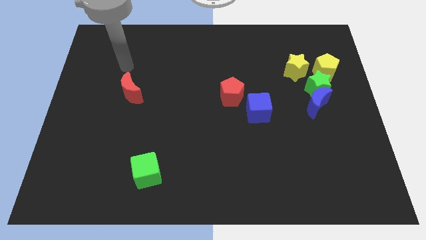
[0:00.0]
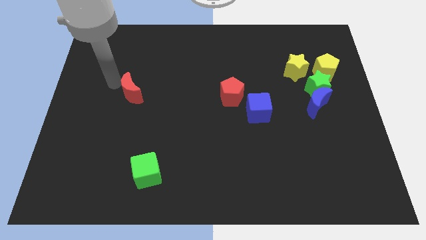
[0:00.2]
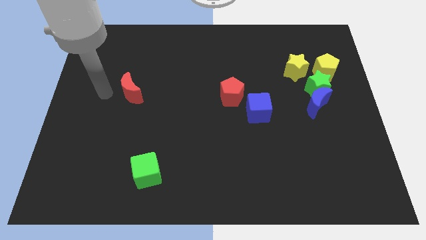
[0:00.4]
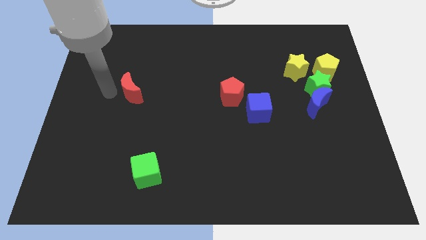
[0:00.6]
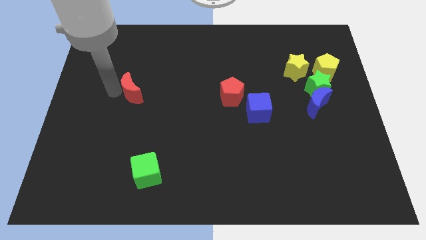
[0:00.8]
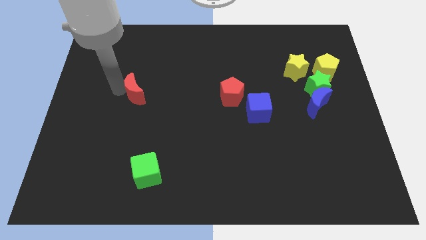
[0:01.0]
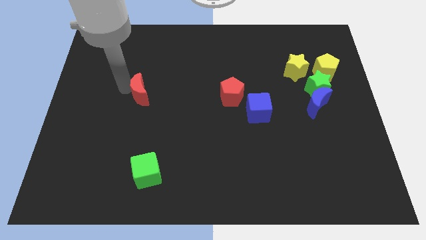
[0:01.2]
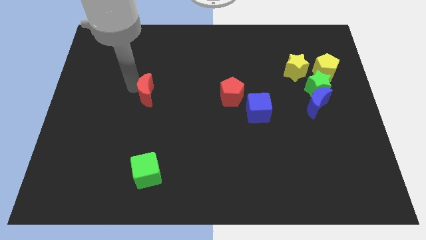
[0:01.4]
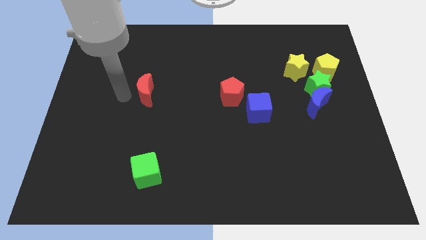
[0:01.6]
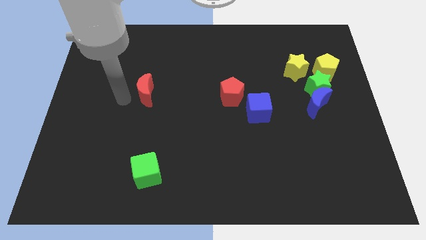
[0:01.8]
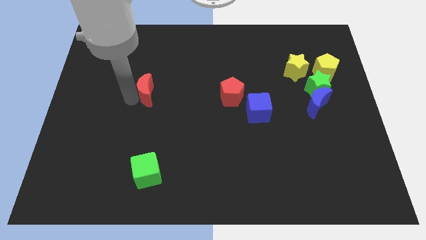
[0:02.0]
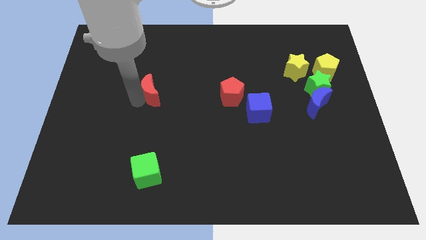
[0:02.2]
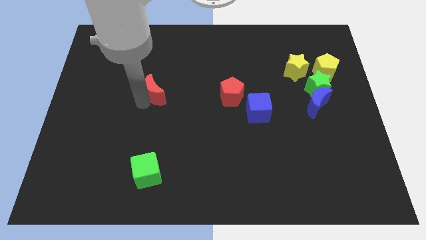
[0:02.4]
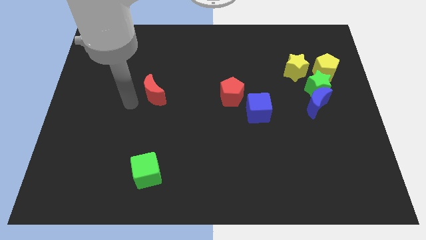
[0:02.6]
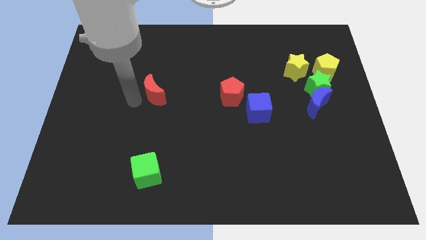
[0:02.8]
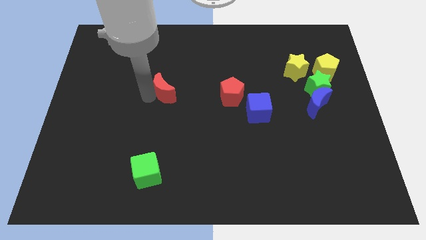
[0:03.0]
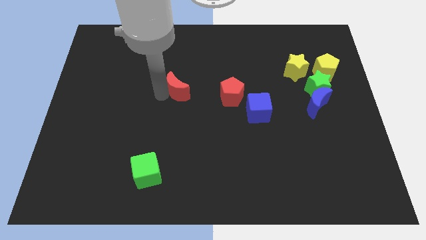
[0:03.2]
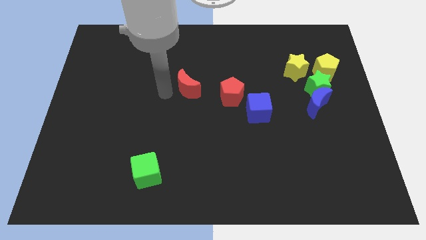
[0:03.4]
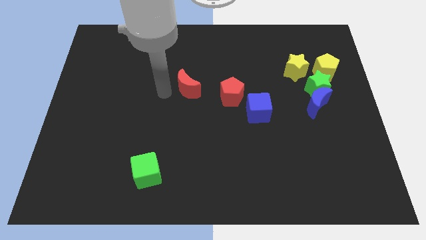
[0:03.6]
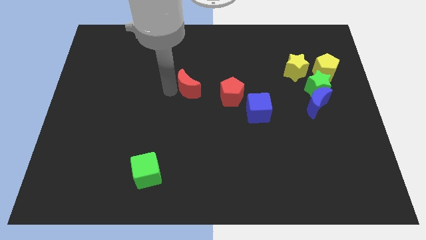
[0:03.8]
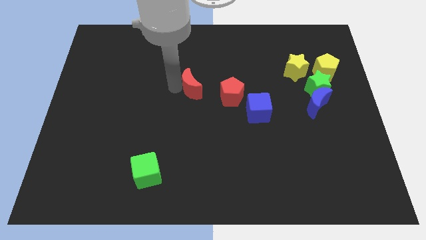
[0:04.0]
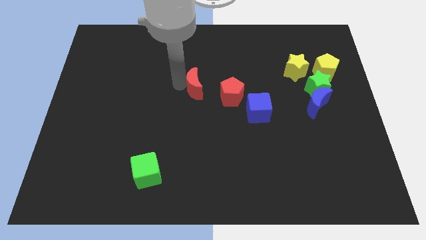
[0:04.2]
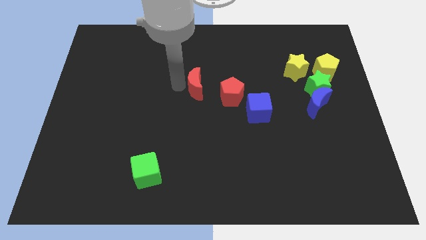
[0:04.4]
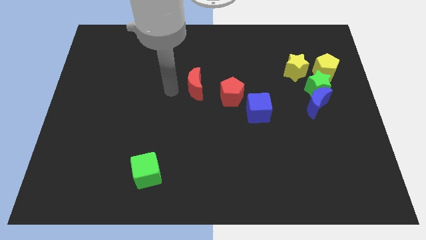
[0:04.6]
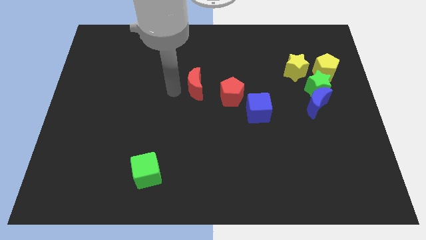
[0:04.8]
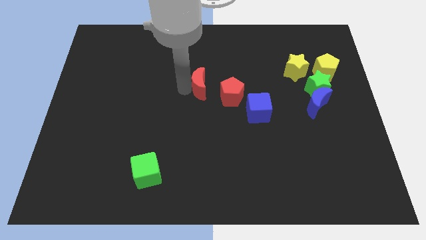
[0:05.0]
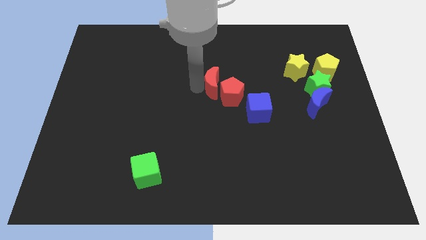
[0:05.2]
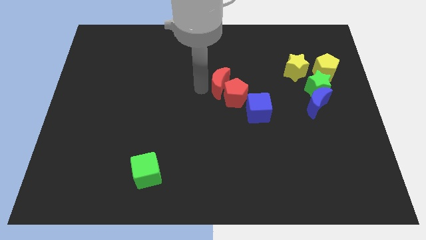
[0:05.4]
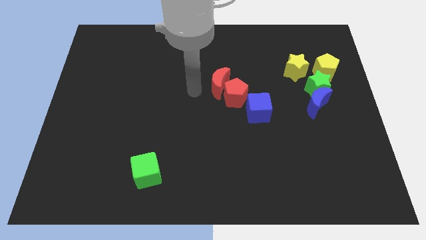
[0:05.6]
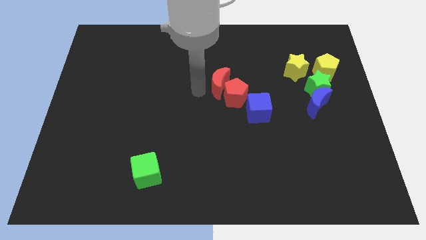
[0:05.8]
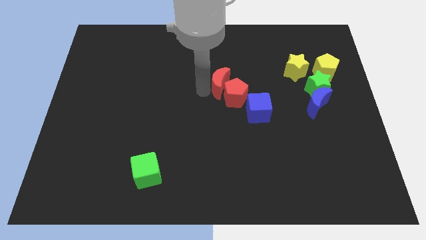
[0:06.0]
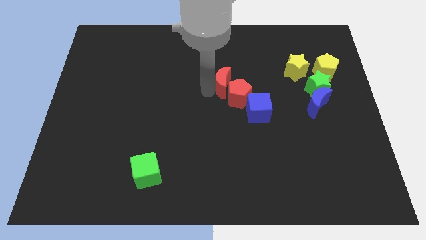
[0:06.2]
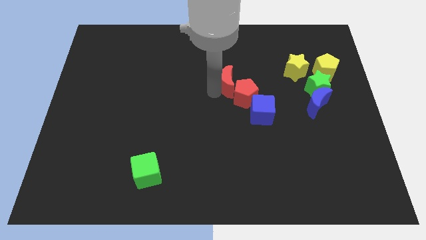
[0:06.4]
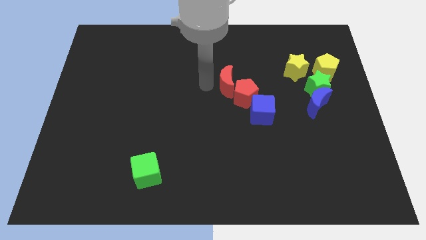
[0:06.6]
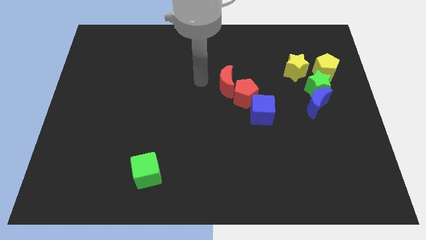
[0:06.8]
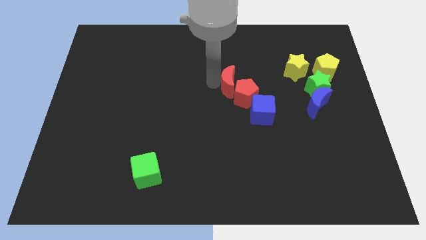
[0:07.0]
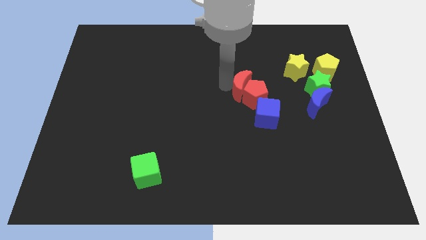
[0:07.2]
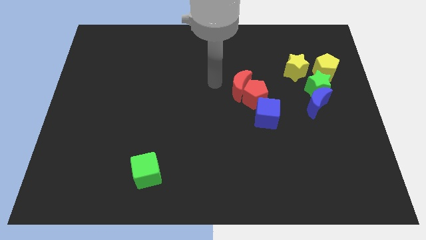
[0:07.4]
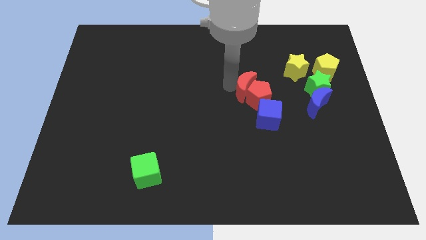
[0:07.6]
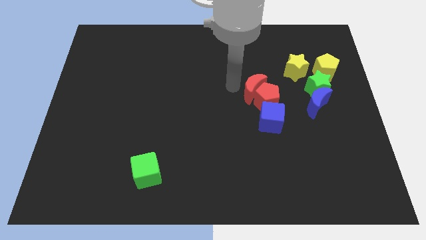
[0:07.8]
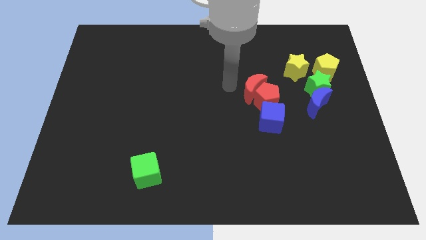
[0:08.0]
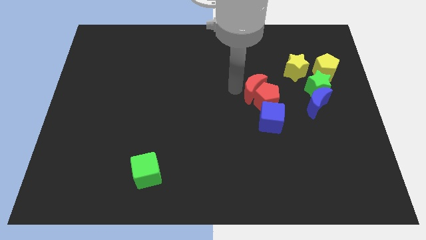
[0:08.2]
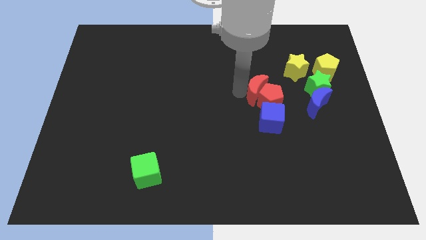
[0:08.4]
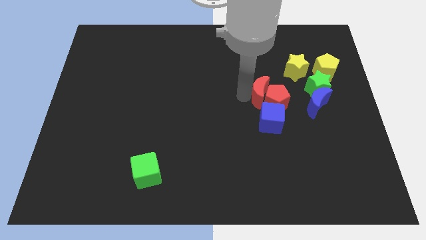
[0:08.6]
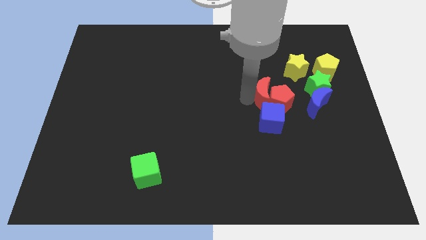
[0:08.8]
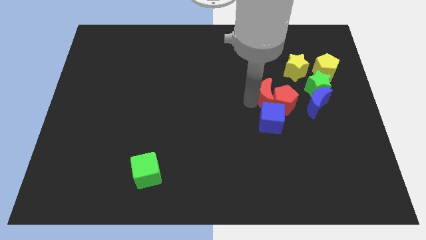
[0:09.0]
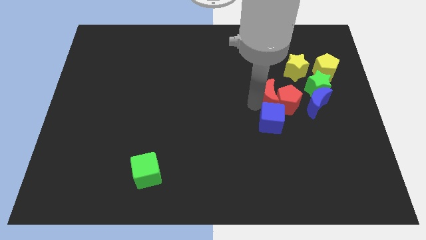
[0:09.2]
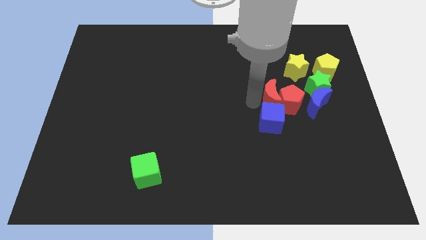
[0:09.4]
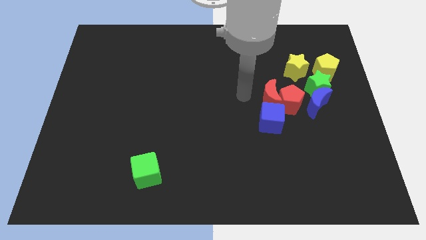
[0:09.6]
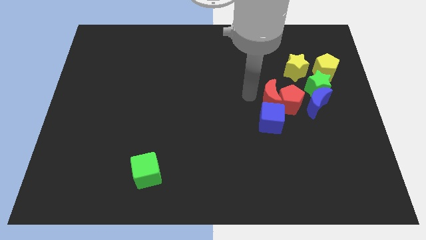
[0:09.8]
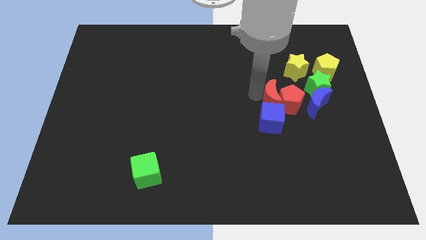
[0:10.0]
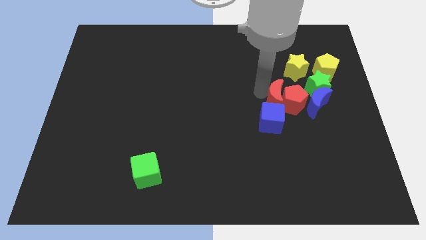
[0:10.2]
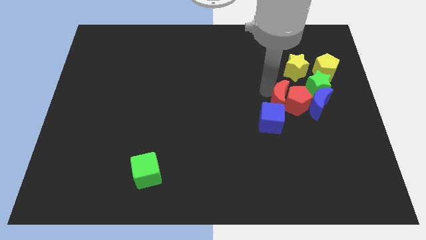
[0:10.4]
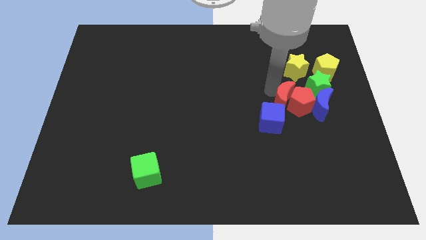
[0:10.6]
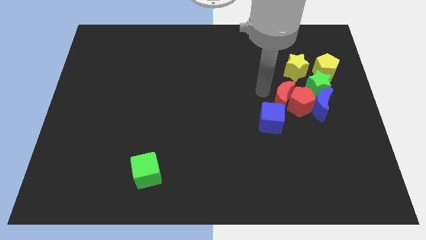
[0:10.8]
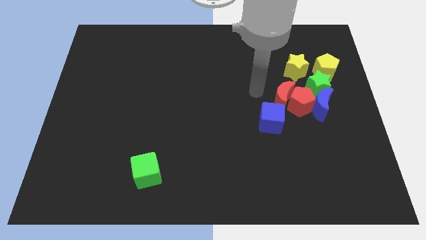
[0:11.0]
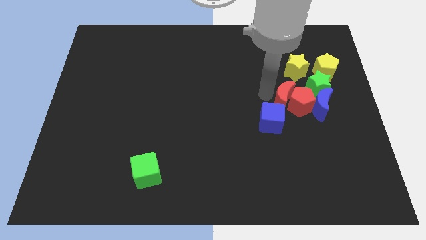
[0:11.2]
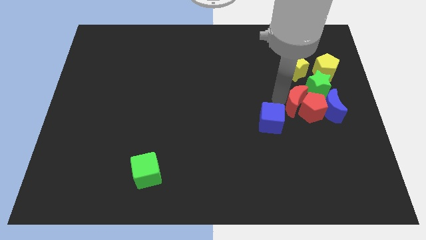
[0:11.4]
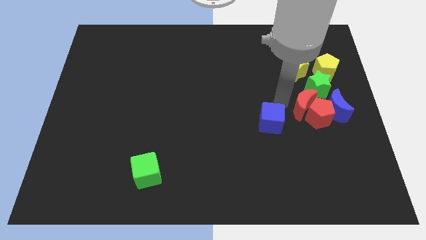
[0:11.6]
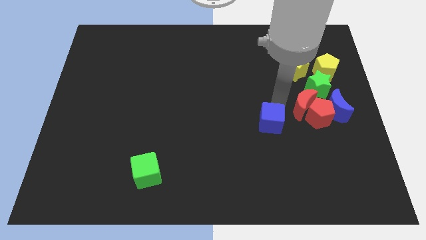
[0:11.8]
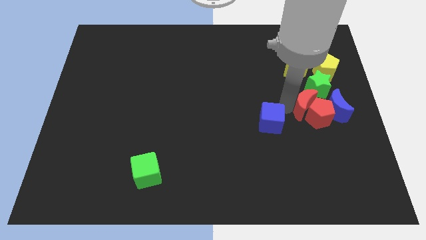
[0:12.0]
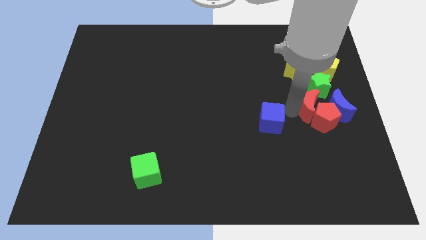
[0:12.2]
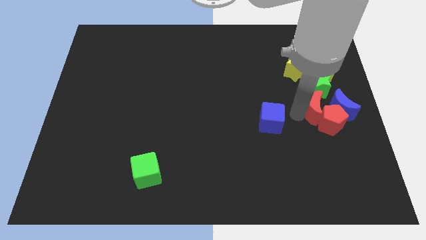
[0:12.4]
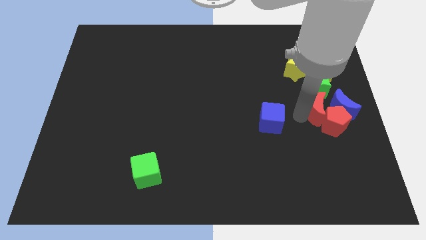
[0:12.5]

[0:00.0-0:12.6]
put the red moon close to the blue moon
